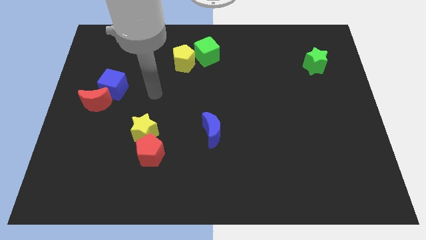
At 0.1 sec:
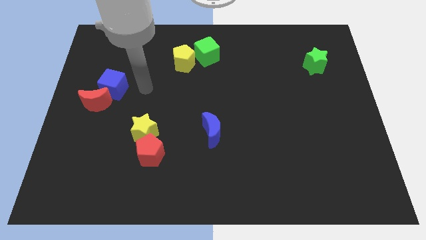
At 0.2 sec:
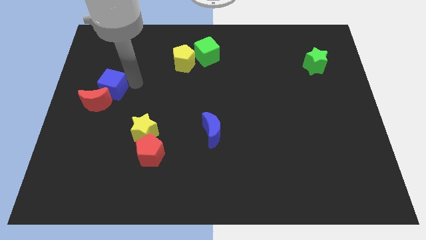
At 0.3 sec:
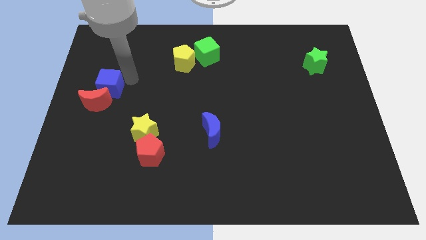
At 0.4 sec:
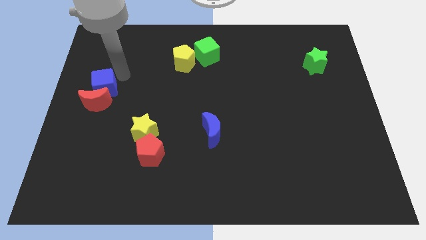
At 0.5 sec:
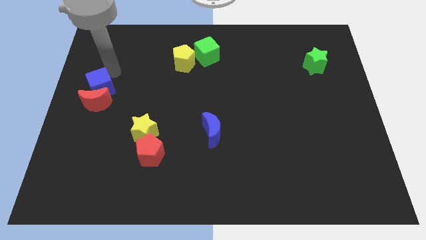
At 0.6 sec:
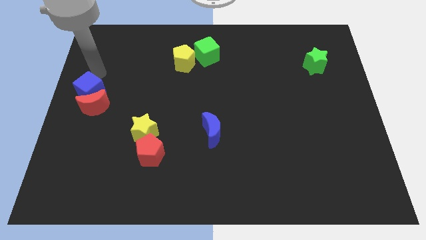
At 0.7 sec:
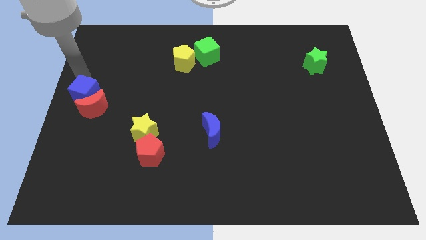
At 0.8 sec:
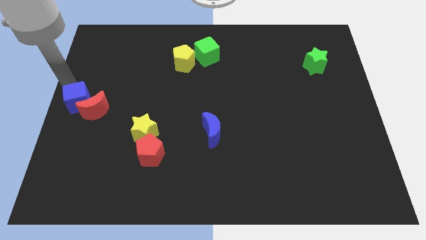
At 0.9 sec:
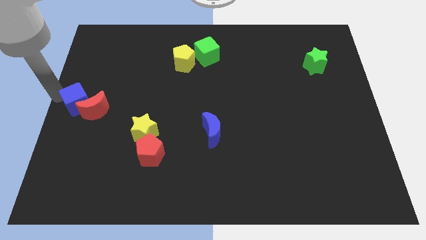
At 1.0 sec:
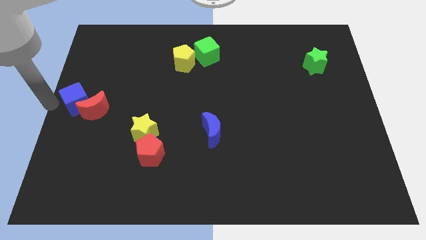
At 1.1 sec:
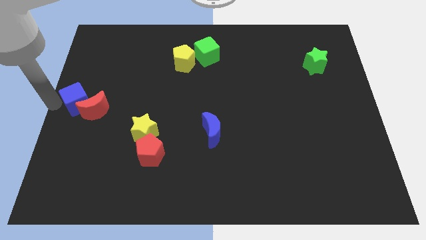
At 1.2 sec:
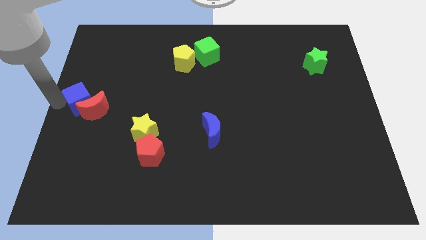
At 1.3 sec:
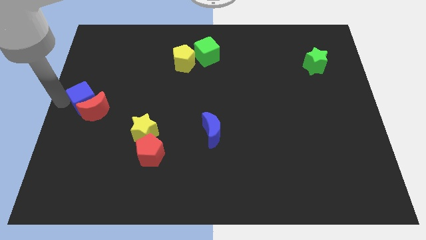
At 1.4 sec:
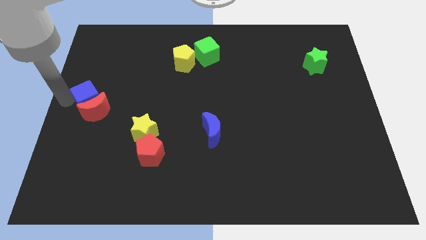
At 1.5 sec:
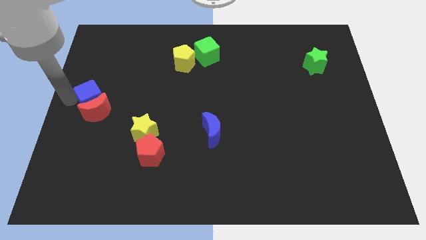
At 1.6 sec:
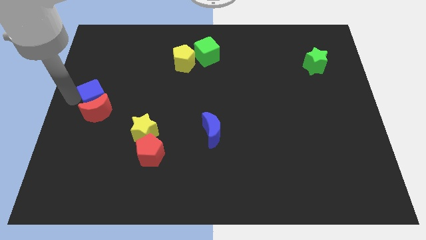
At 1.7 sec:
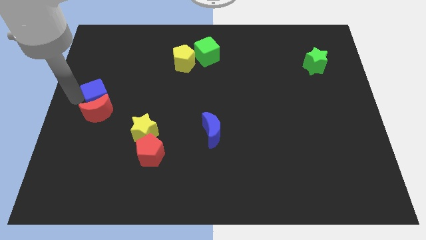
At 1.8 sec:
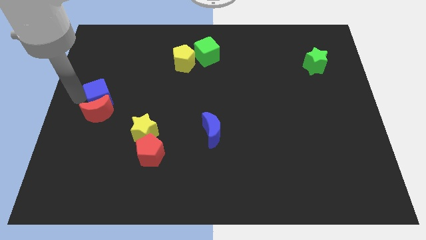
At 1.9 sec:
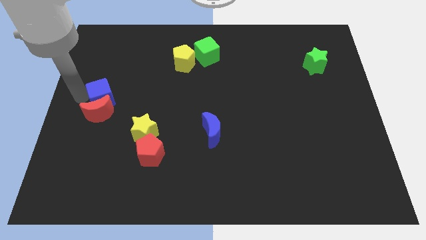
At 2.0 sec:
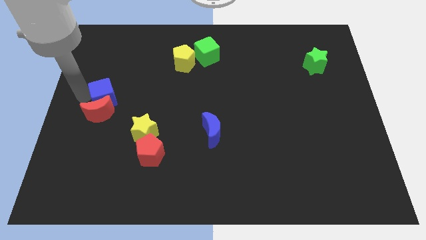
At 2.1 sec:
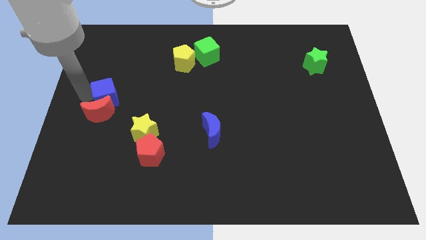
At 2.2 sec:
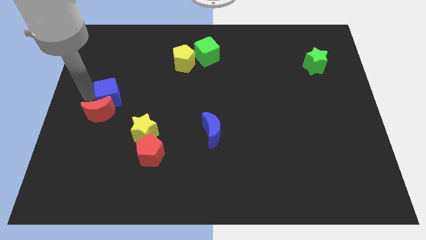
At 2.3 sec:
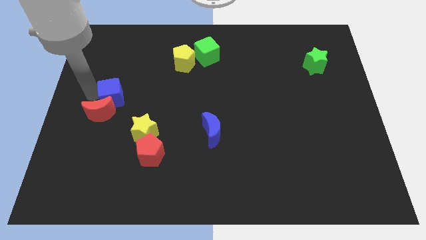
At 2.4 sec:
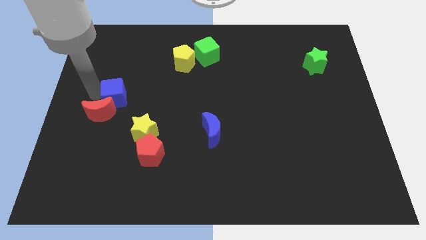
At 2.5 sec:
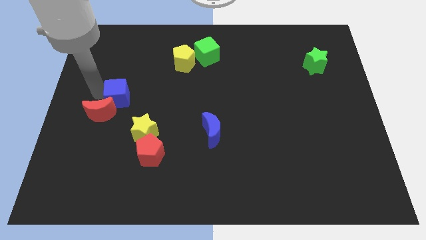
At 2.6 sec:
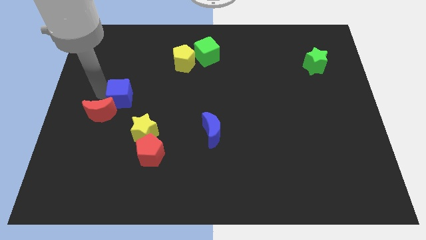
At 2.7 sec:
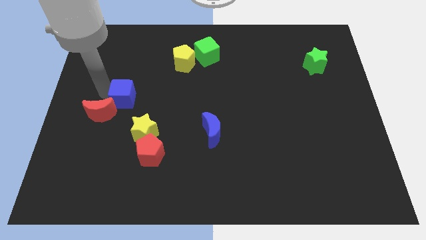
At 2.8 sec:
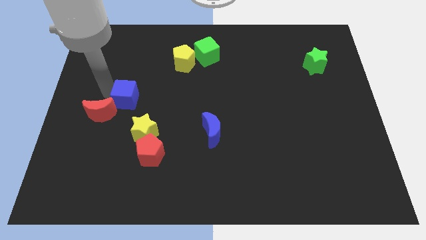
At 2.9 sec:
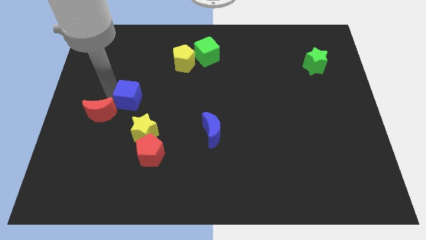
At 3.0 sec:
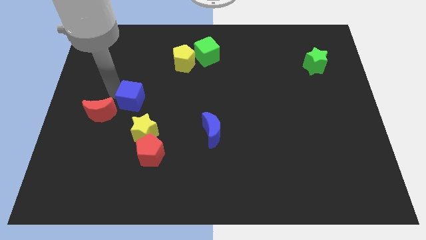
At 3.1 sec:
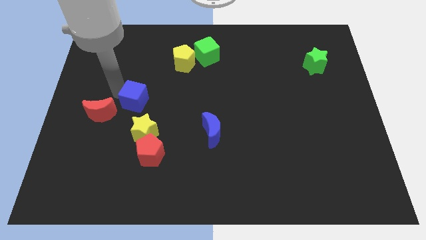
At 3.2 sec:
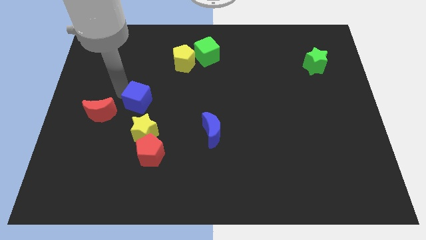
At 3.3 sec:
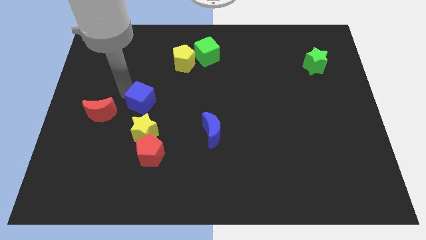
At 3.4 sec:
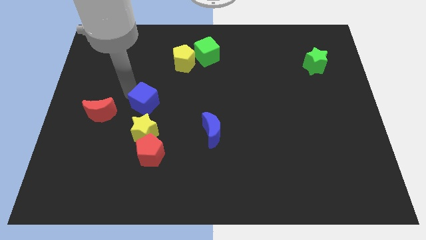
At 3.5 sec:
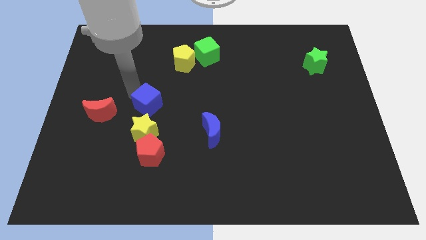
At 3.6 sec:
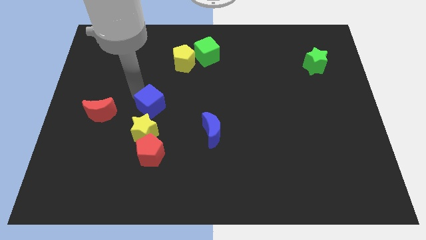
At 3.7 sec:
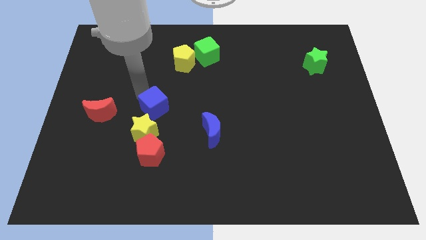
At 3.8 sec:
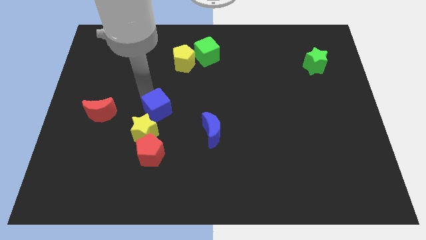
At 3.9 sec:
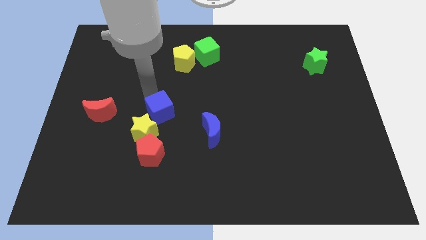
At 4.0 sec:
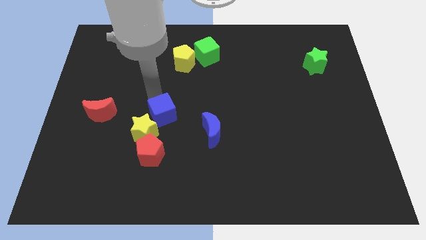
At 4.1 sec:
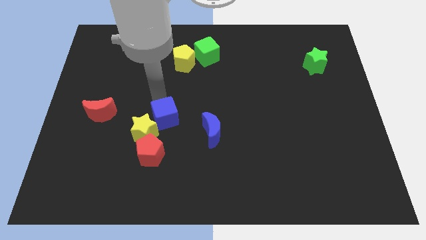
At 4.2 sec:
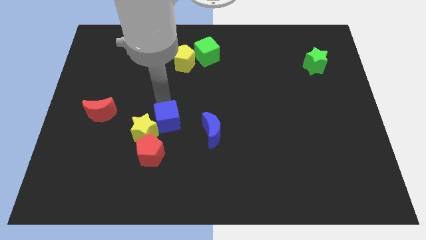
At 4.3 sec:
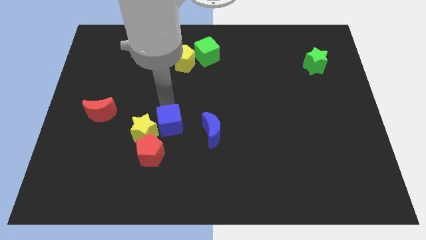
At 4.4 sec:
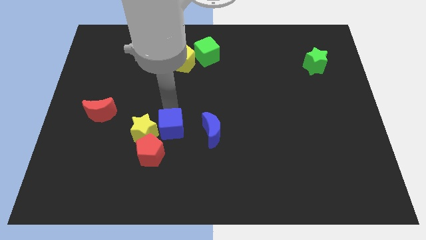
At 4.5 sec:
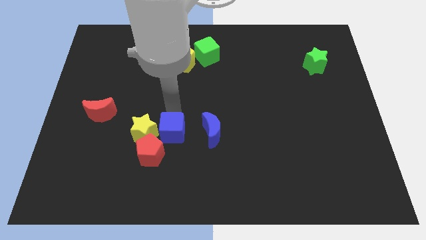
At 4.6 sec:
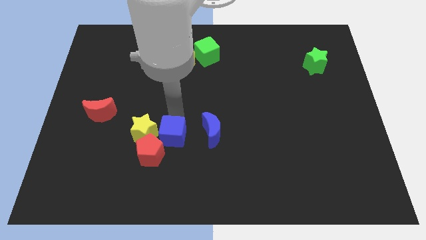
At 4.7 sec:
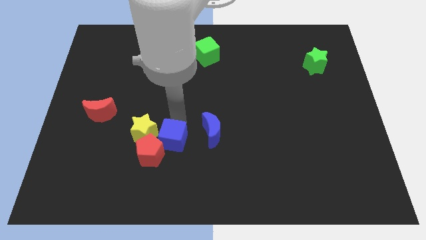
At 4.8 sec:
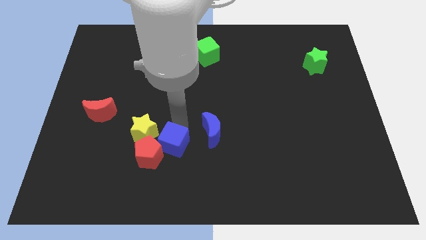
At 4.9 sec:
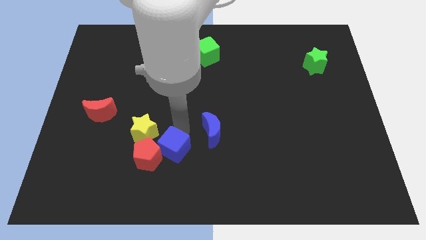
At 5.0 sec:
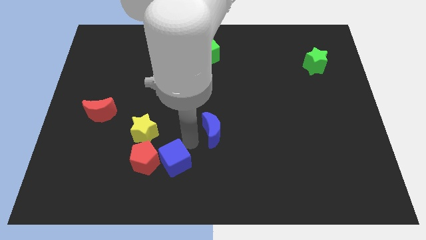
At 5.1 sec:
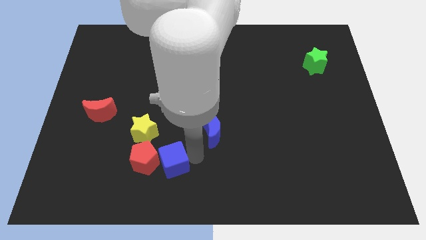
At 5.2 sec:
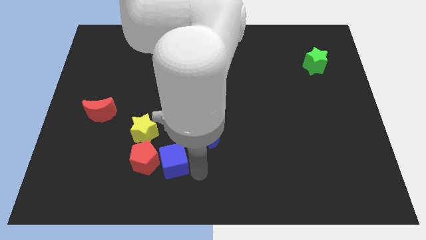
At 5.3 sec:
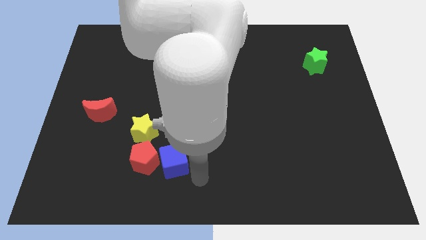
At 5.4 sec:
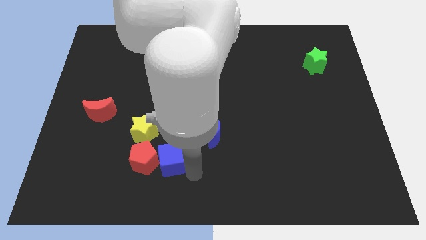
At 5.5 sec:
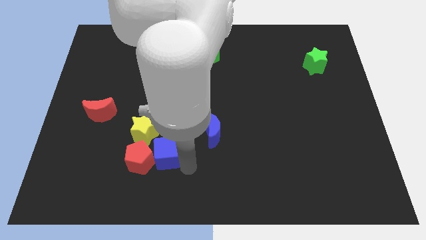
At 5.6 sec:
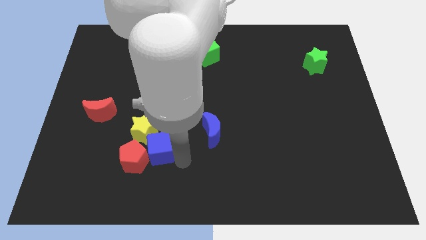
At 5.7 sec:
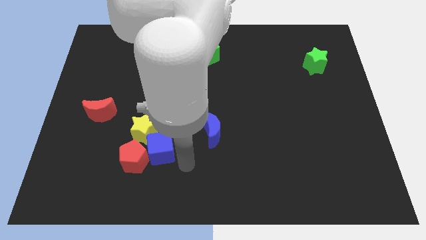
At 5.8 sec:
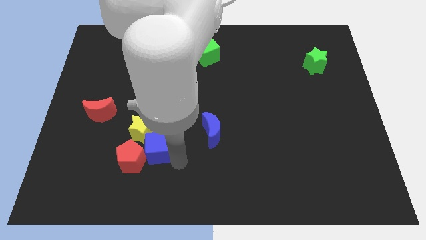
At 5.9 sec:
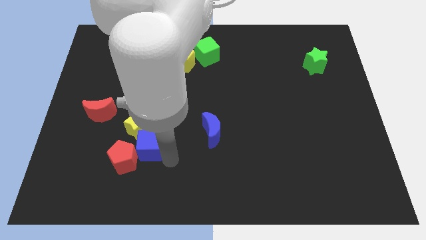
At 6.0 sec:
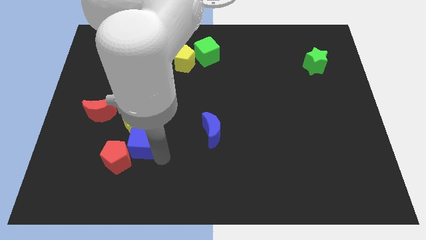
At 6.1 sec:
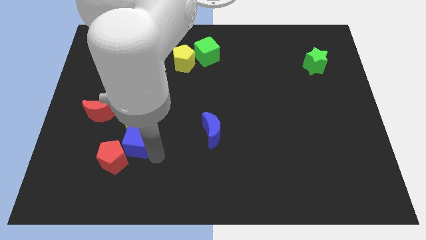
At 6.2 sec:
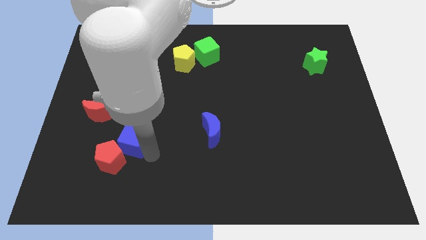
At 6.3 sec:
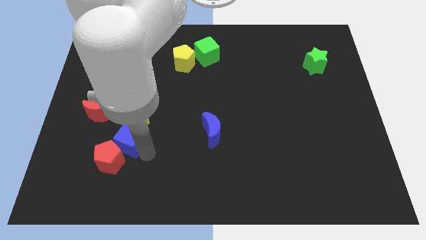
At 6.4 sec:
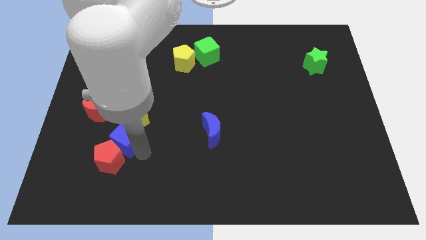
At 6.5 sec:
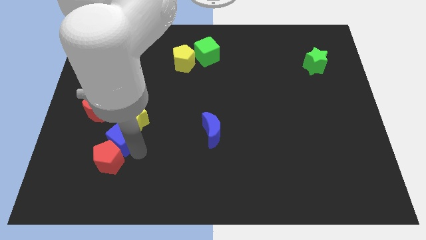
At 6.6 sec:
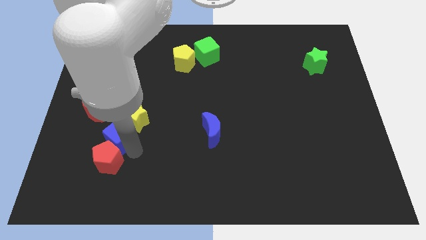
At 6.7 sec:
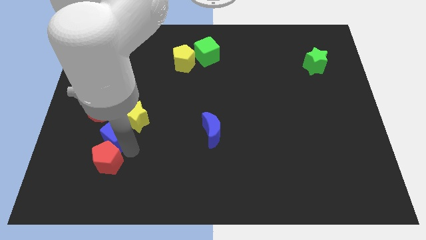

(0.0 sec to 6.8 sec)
push the blue cube just left of the yellow star

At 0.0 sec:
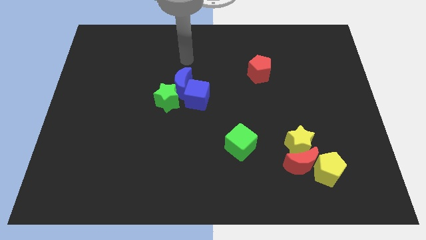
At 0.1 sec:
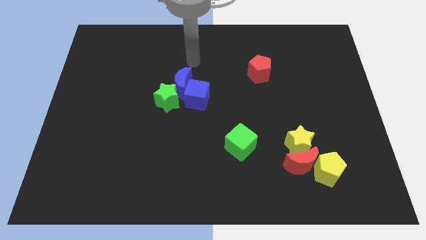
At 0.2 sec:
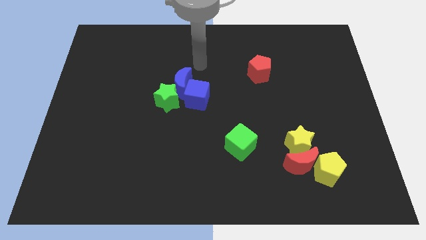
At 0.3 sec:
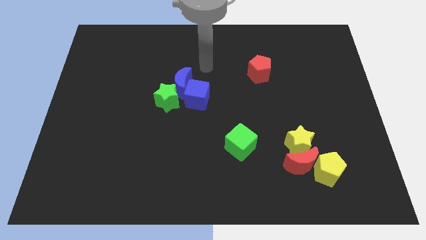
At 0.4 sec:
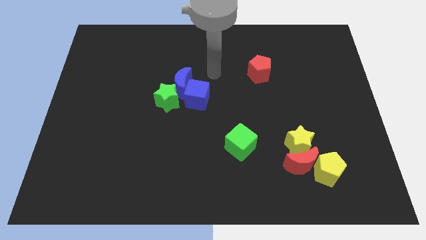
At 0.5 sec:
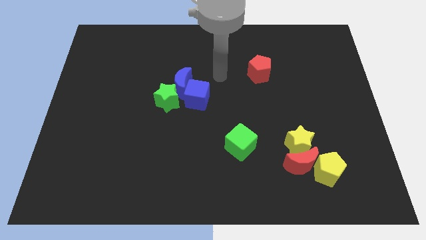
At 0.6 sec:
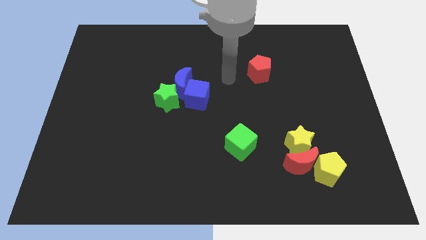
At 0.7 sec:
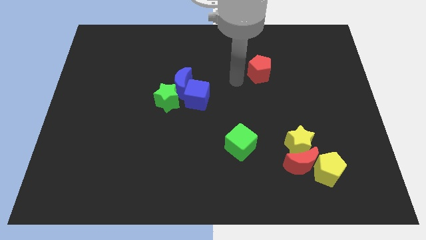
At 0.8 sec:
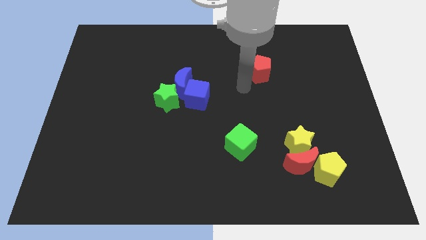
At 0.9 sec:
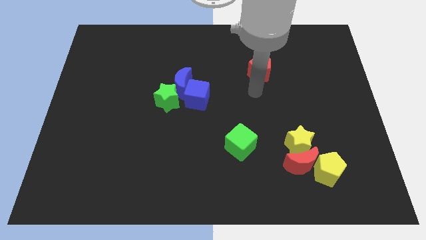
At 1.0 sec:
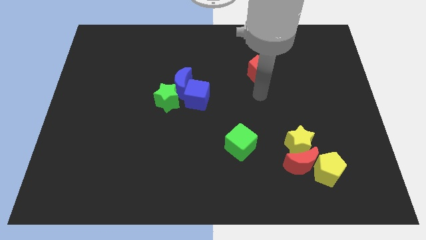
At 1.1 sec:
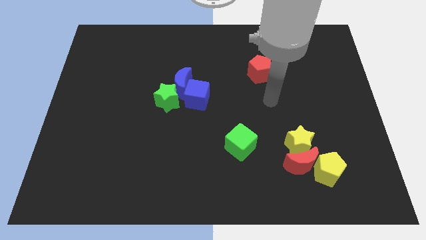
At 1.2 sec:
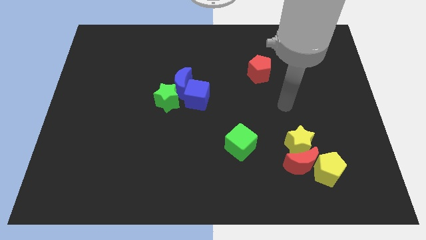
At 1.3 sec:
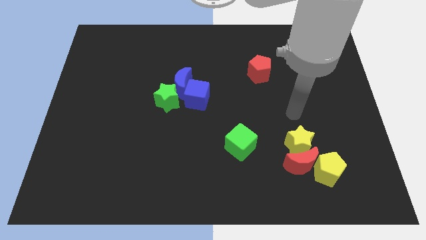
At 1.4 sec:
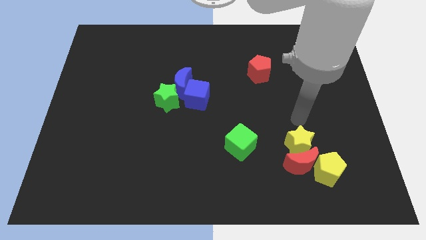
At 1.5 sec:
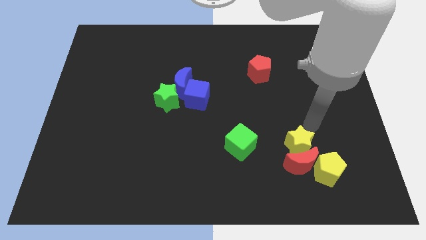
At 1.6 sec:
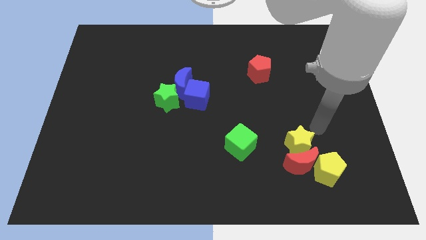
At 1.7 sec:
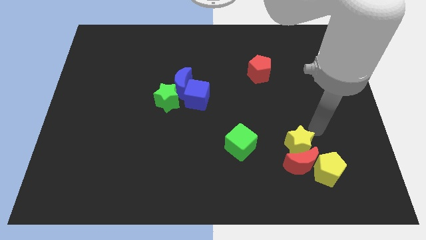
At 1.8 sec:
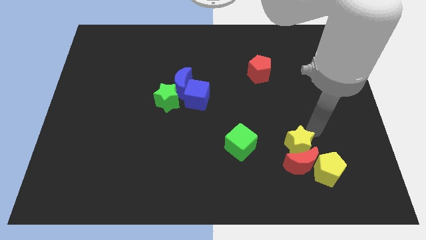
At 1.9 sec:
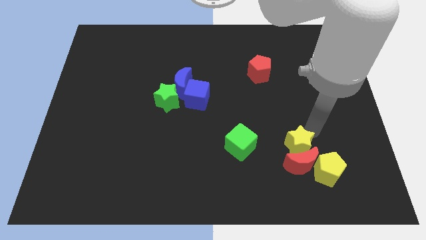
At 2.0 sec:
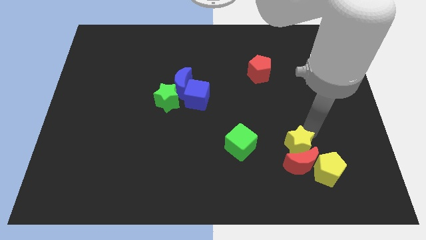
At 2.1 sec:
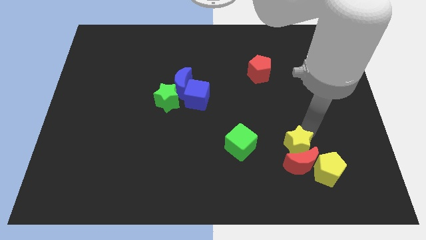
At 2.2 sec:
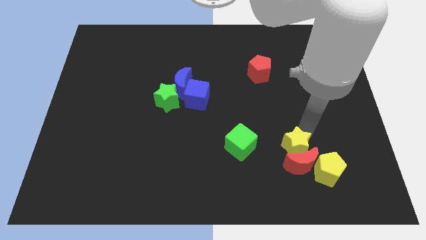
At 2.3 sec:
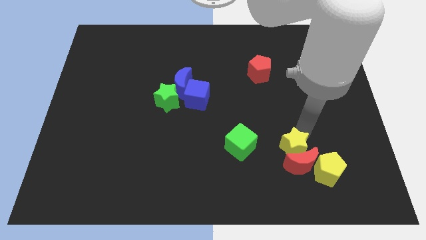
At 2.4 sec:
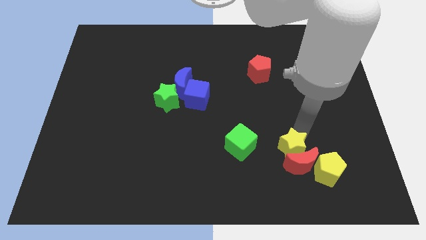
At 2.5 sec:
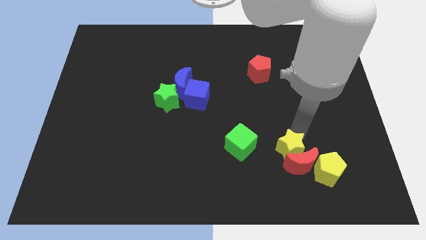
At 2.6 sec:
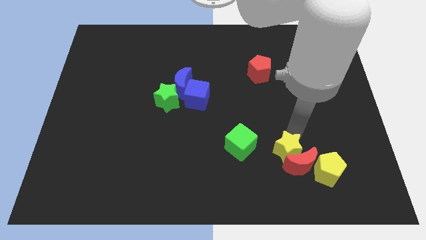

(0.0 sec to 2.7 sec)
slide the yellow star just left of the red moon
